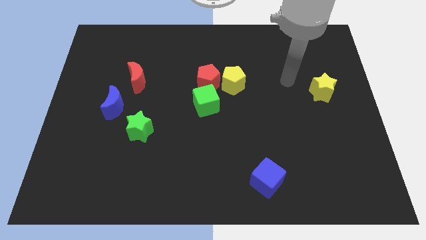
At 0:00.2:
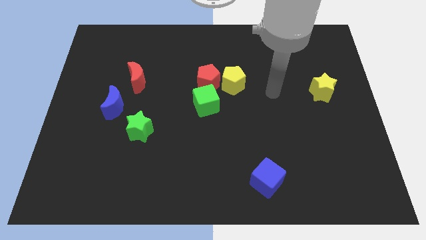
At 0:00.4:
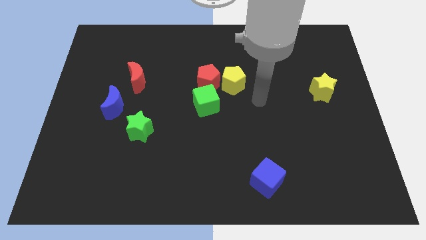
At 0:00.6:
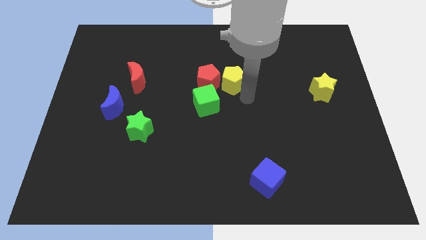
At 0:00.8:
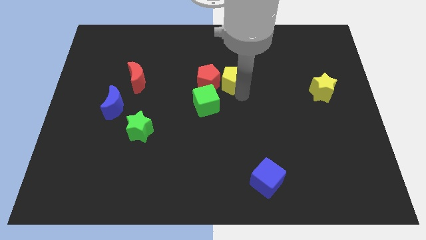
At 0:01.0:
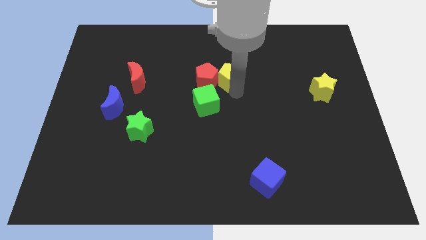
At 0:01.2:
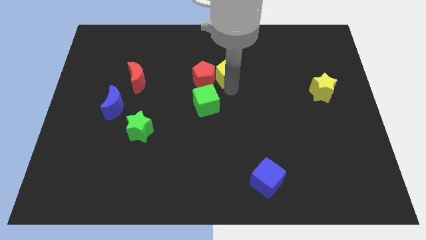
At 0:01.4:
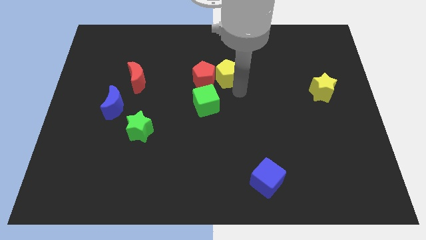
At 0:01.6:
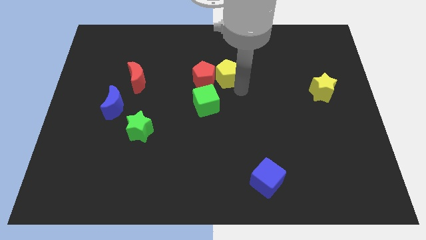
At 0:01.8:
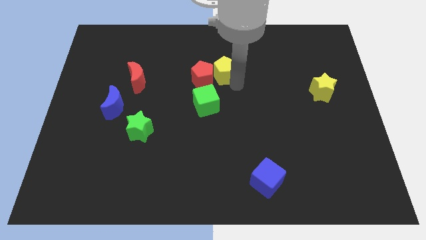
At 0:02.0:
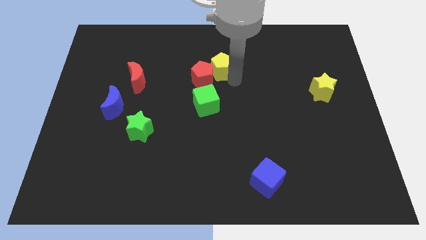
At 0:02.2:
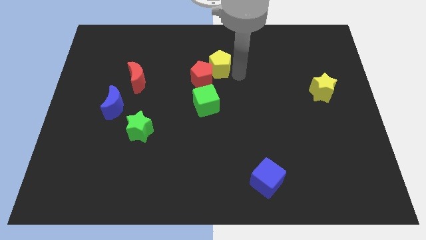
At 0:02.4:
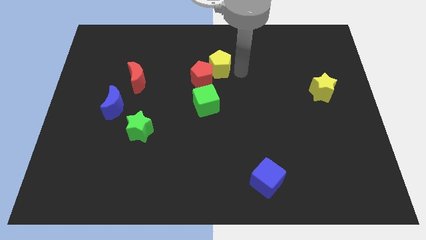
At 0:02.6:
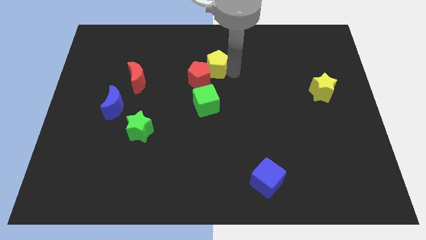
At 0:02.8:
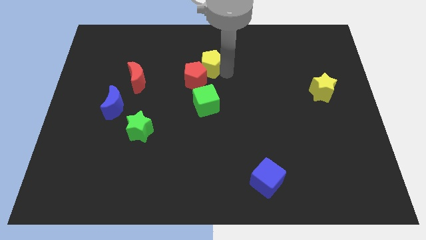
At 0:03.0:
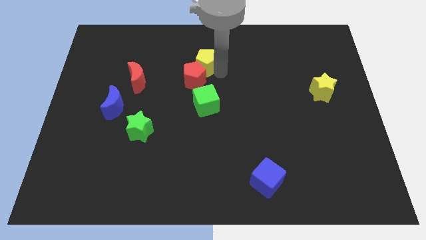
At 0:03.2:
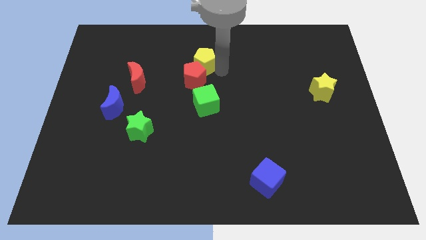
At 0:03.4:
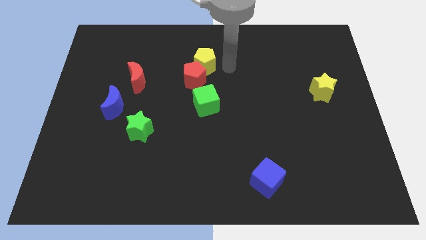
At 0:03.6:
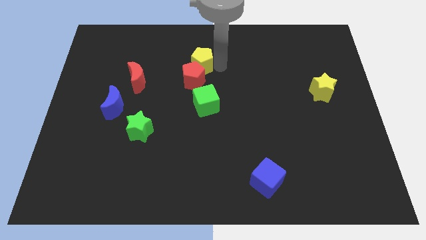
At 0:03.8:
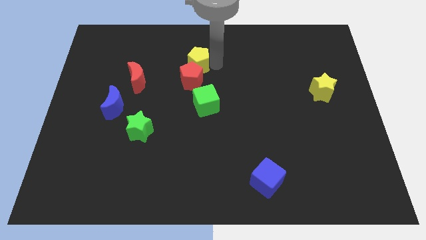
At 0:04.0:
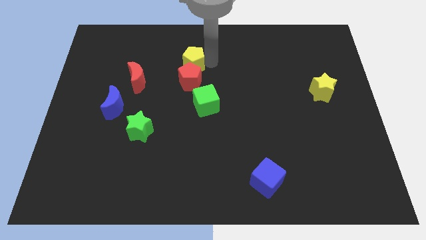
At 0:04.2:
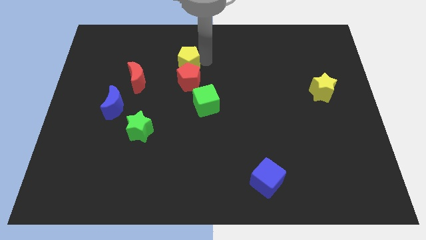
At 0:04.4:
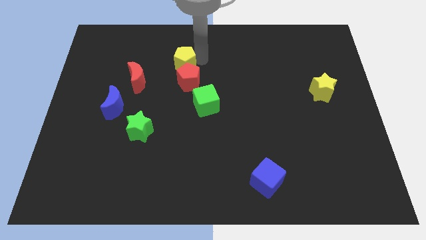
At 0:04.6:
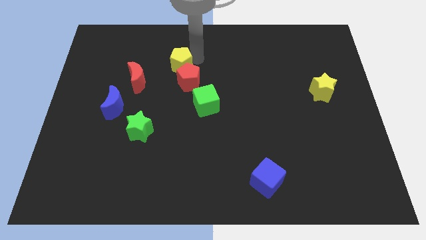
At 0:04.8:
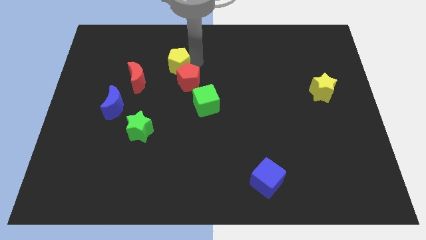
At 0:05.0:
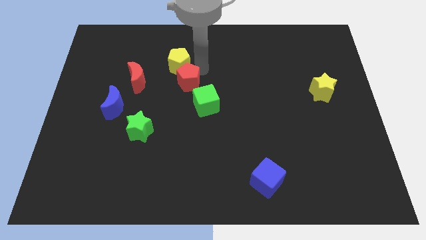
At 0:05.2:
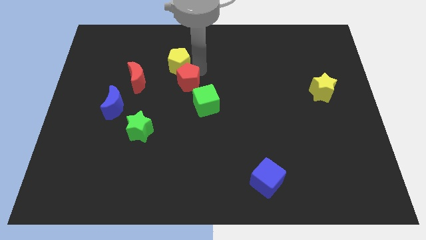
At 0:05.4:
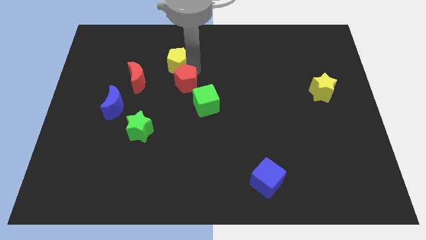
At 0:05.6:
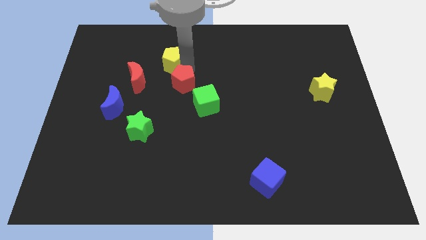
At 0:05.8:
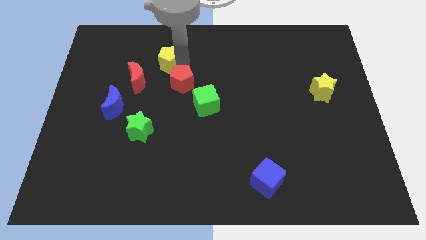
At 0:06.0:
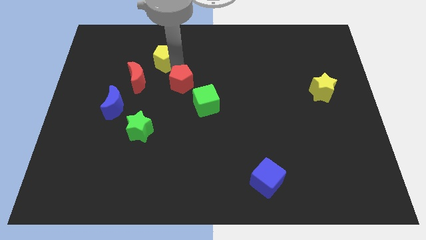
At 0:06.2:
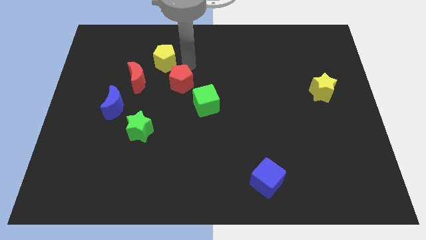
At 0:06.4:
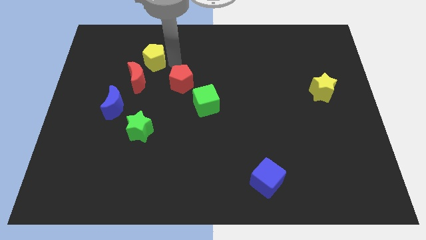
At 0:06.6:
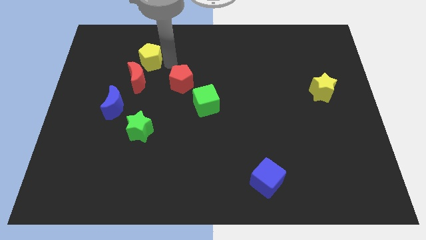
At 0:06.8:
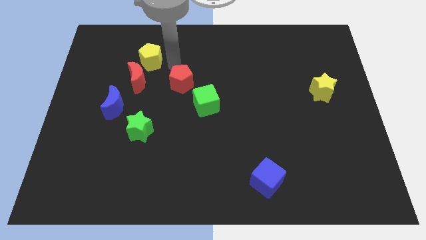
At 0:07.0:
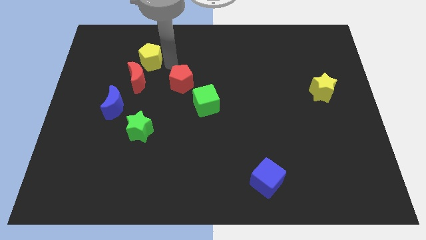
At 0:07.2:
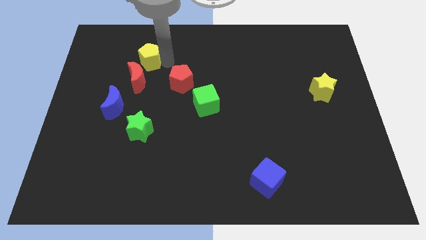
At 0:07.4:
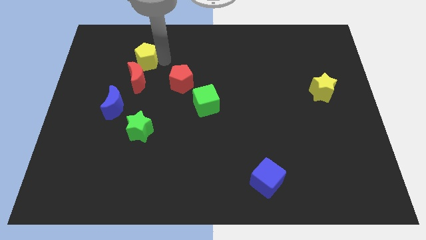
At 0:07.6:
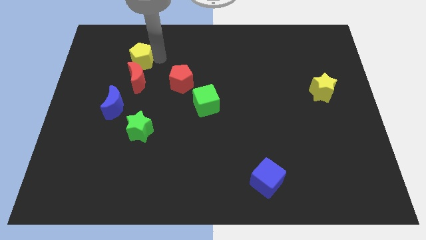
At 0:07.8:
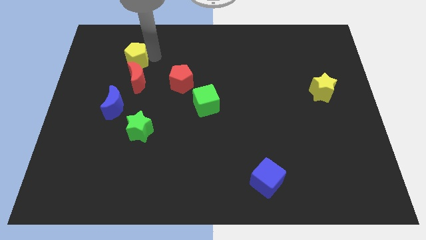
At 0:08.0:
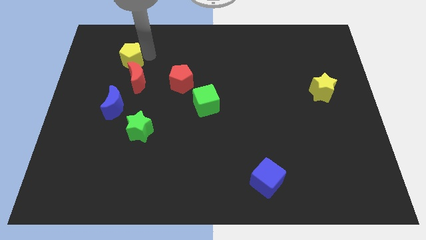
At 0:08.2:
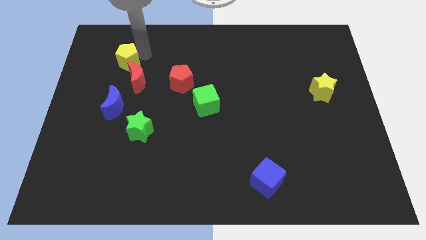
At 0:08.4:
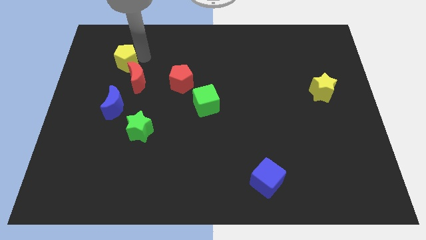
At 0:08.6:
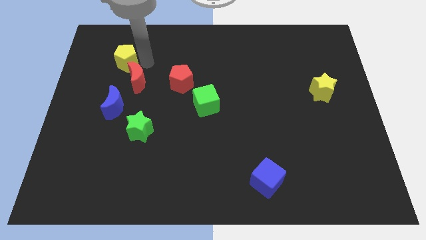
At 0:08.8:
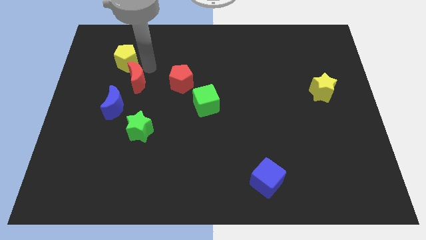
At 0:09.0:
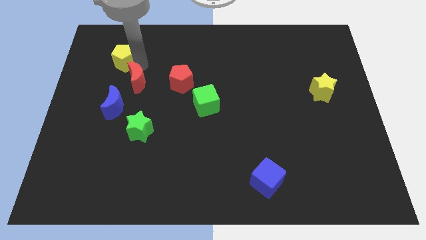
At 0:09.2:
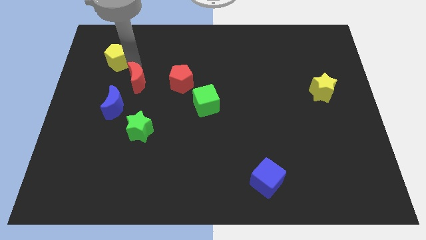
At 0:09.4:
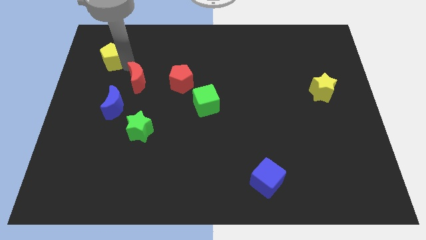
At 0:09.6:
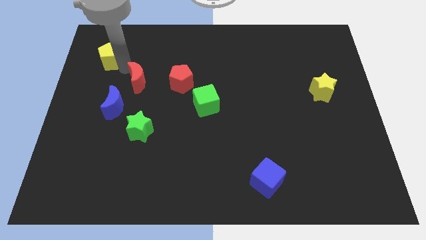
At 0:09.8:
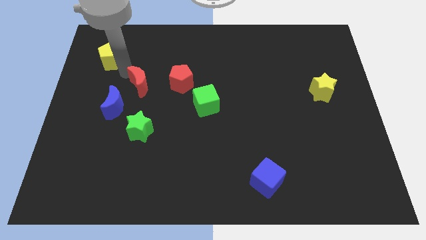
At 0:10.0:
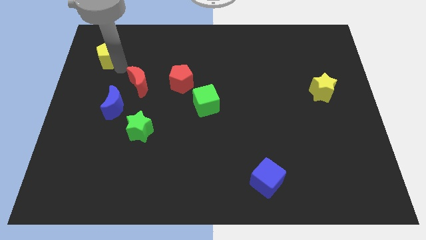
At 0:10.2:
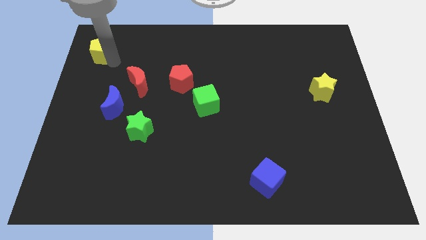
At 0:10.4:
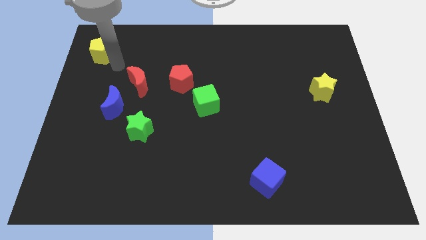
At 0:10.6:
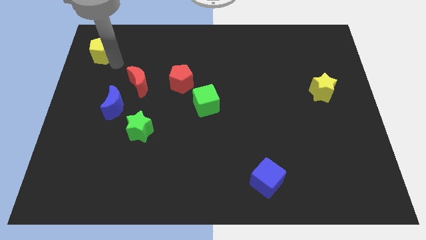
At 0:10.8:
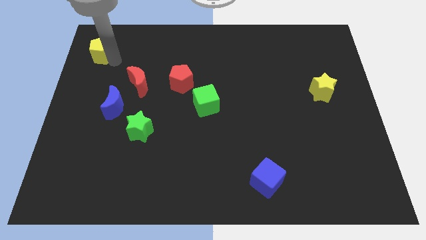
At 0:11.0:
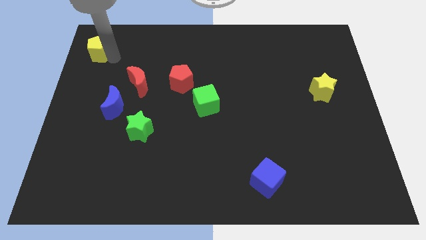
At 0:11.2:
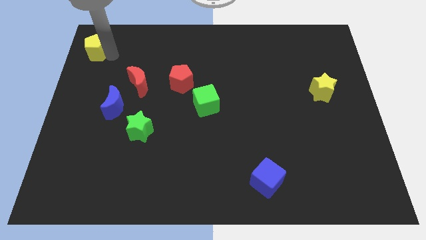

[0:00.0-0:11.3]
push the yellow pentagon to the top left
